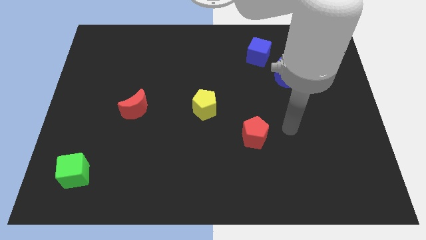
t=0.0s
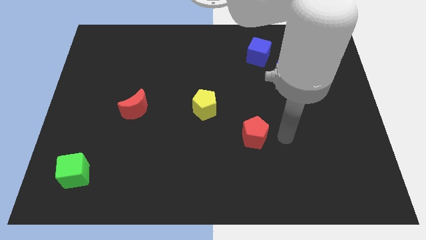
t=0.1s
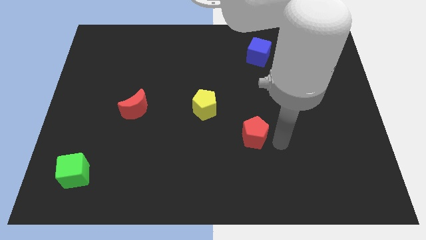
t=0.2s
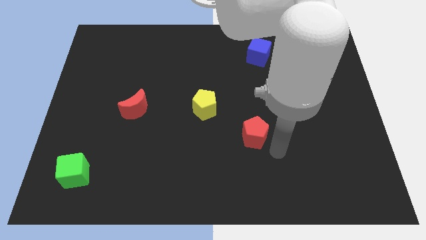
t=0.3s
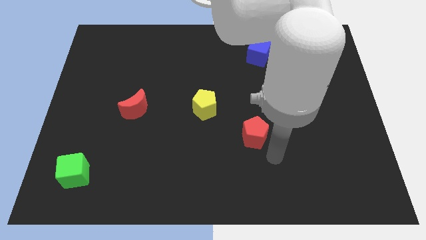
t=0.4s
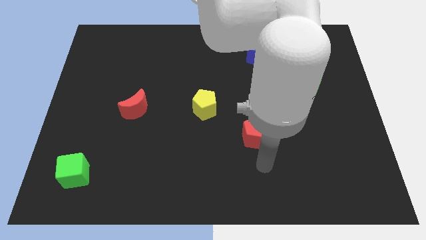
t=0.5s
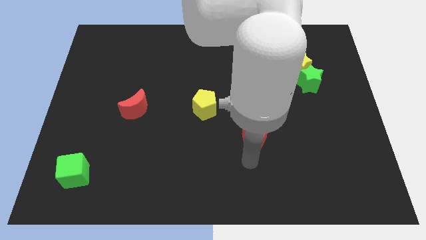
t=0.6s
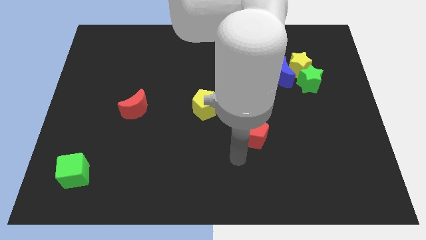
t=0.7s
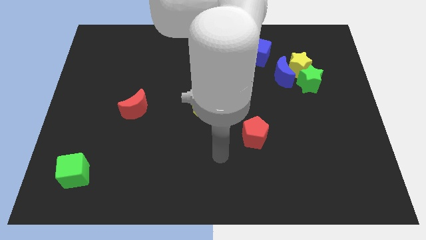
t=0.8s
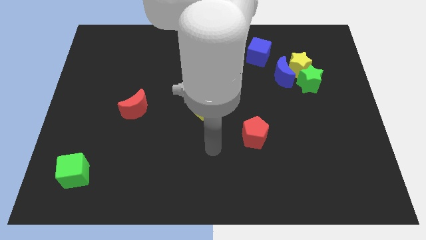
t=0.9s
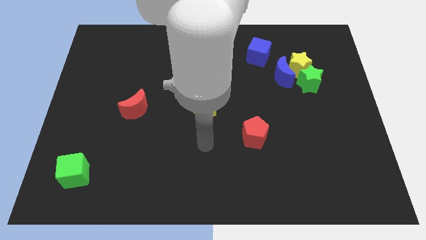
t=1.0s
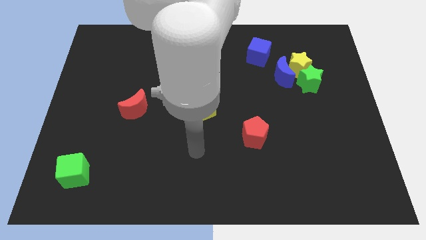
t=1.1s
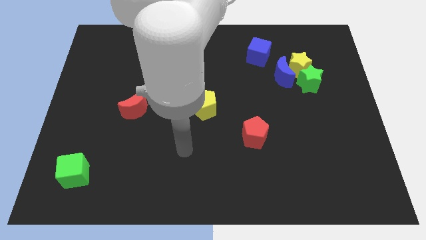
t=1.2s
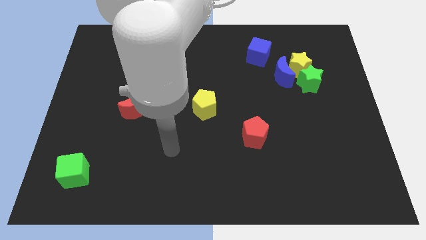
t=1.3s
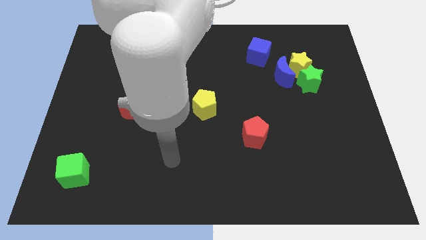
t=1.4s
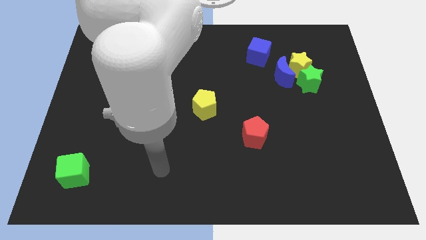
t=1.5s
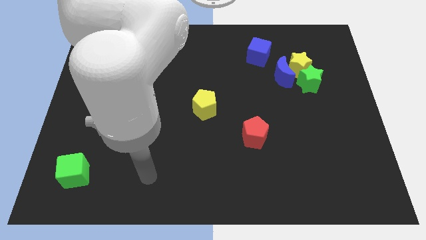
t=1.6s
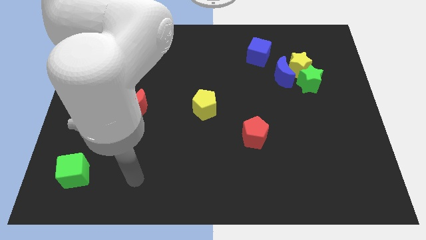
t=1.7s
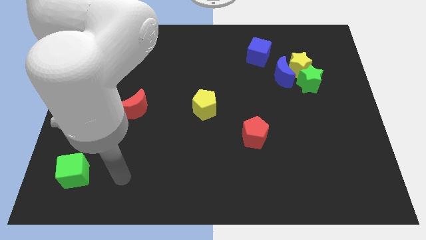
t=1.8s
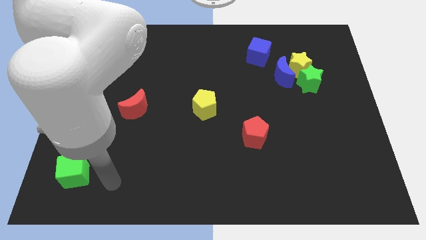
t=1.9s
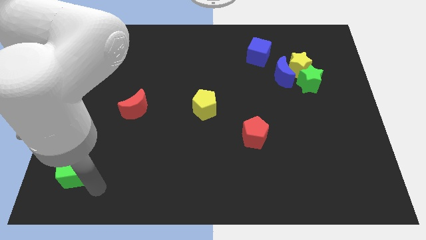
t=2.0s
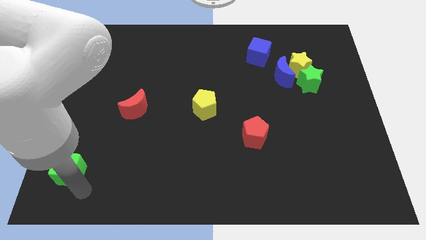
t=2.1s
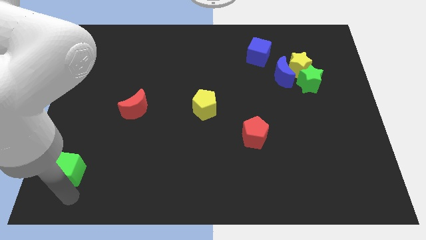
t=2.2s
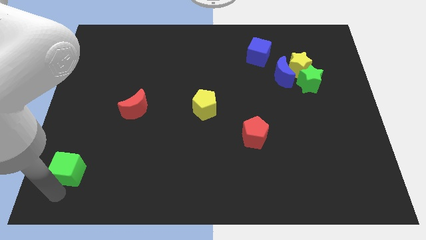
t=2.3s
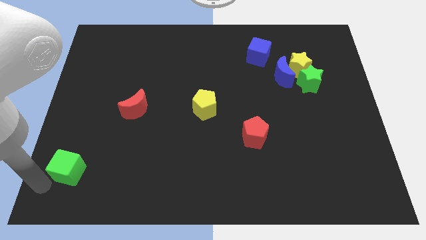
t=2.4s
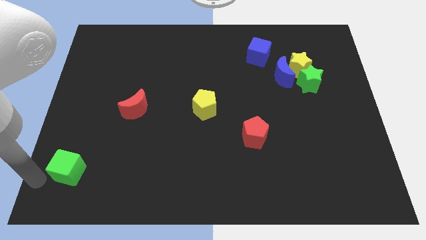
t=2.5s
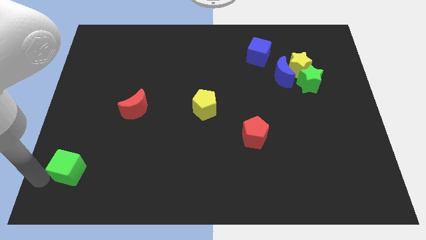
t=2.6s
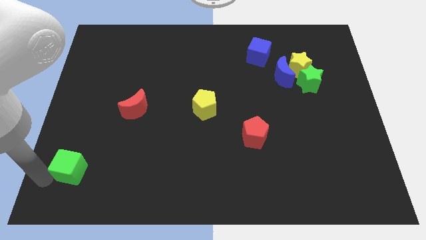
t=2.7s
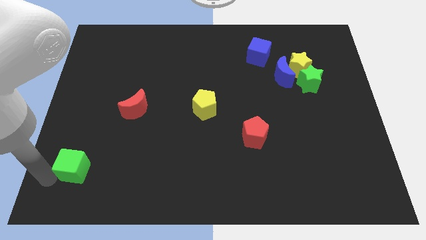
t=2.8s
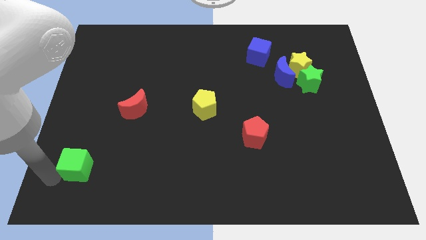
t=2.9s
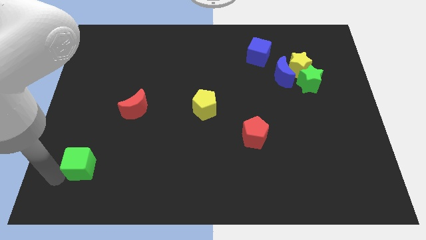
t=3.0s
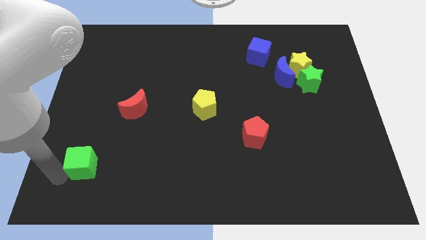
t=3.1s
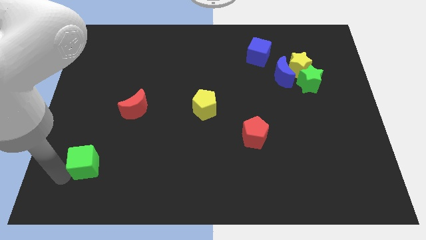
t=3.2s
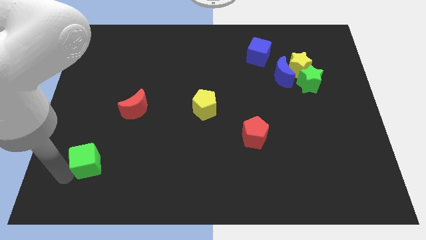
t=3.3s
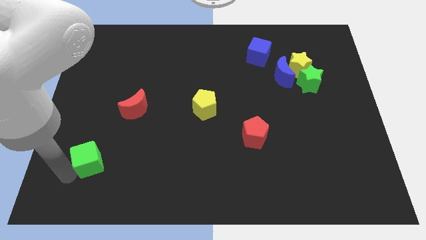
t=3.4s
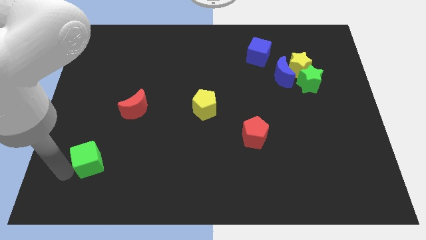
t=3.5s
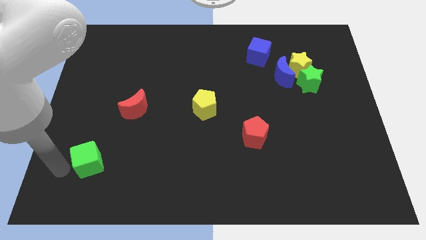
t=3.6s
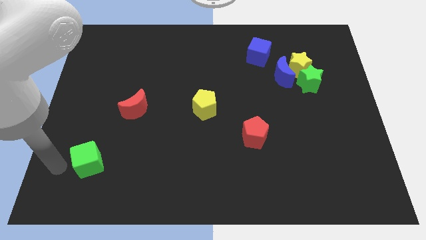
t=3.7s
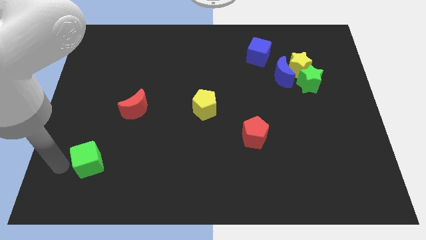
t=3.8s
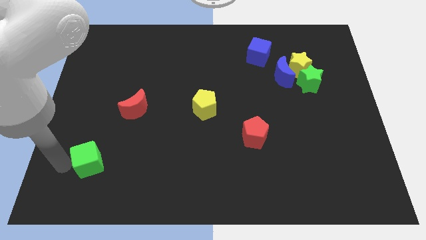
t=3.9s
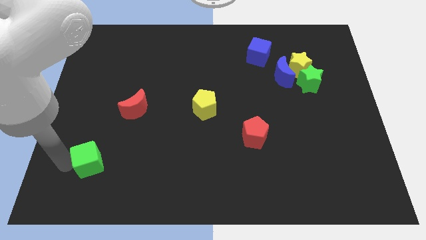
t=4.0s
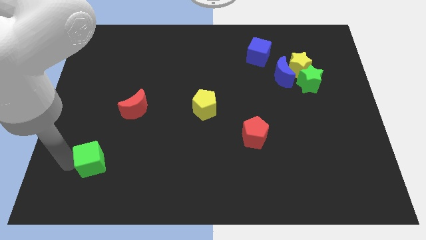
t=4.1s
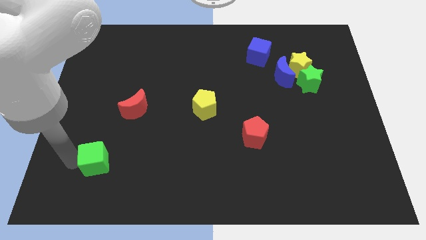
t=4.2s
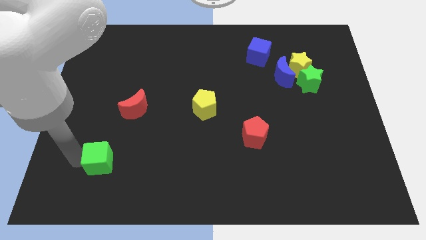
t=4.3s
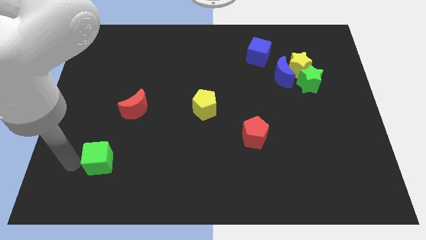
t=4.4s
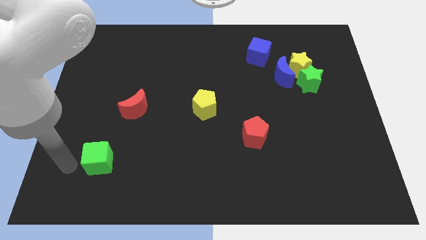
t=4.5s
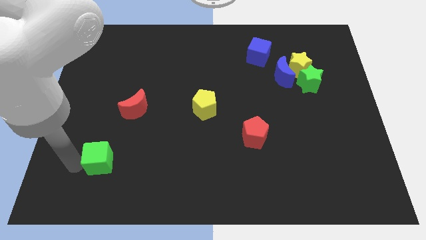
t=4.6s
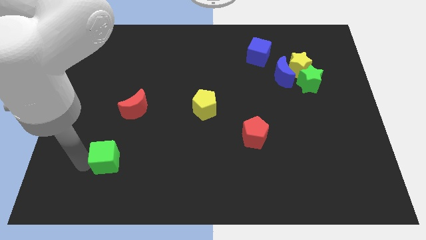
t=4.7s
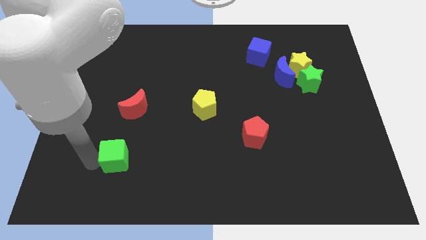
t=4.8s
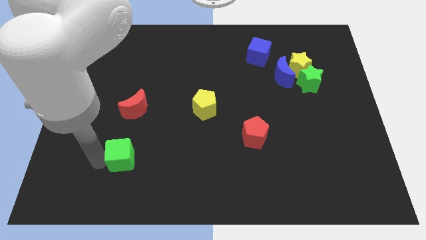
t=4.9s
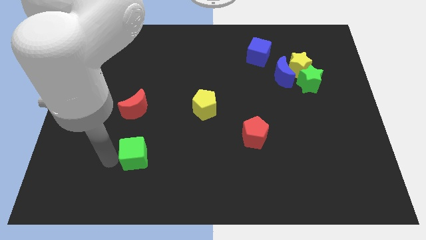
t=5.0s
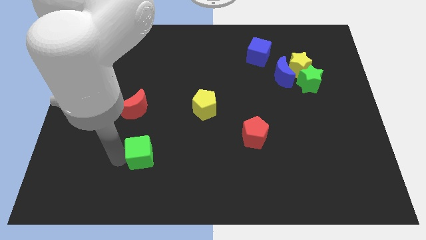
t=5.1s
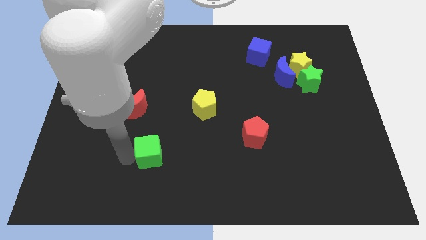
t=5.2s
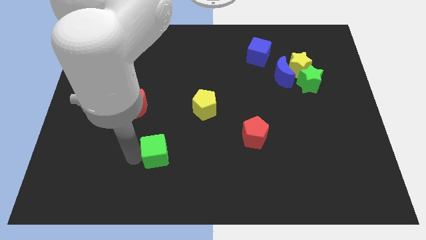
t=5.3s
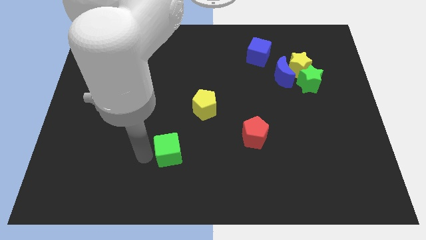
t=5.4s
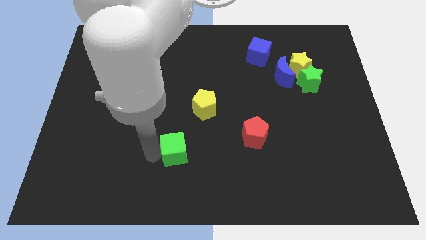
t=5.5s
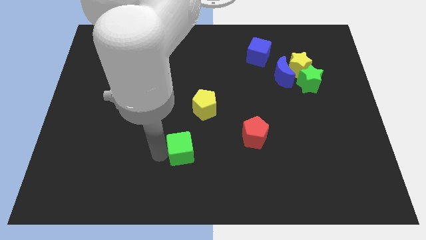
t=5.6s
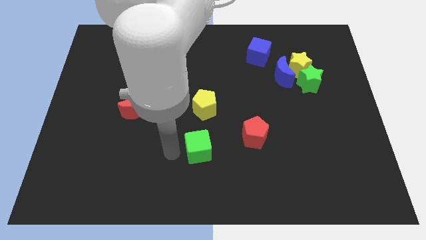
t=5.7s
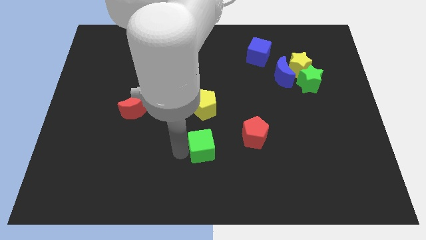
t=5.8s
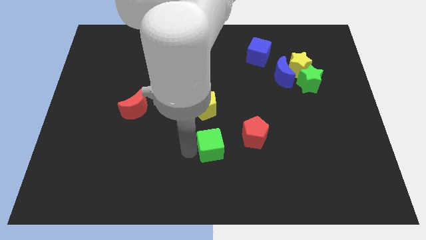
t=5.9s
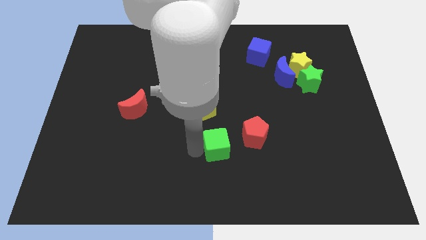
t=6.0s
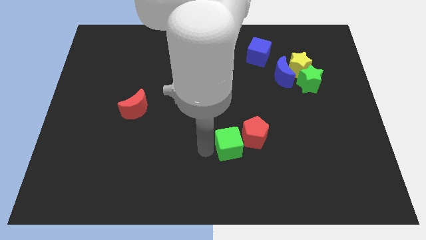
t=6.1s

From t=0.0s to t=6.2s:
push the green cube next to the red pentagon

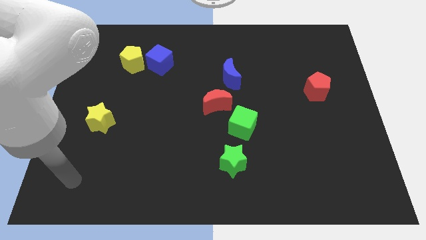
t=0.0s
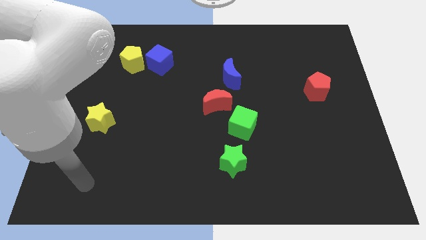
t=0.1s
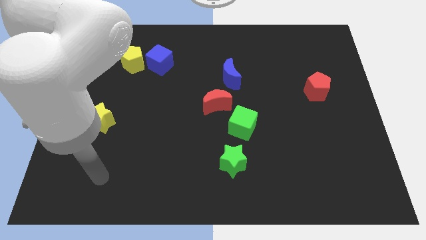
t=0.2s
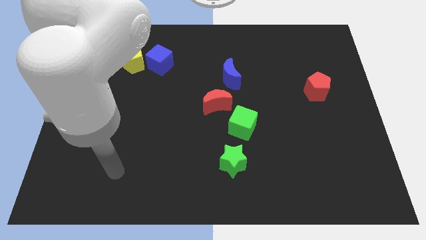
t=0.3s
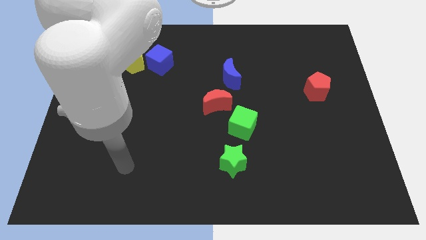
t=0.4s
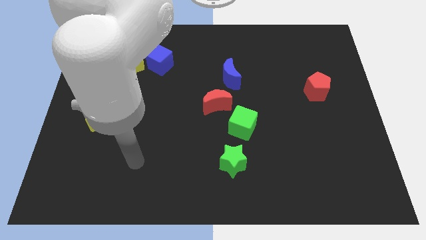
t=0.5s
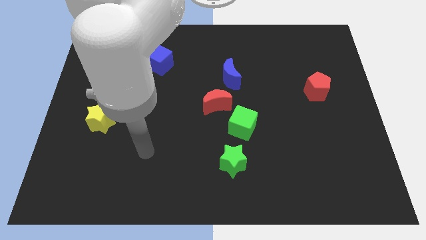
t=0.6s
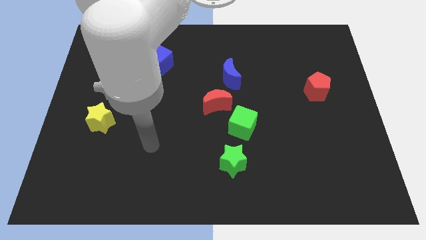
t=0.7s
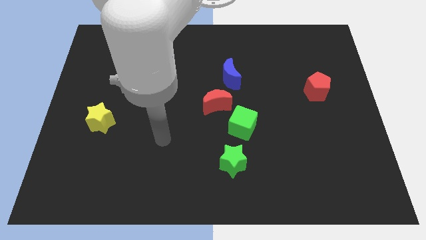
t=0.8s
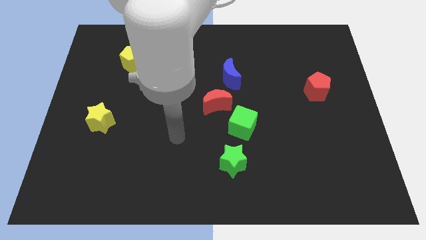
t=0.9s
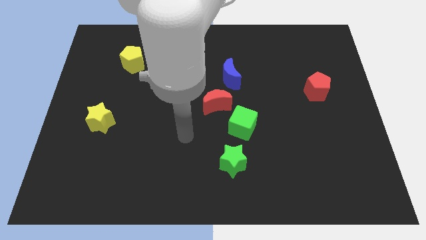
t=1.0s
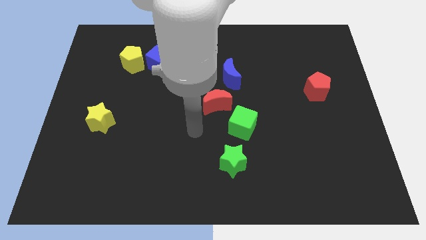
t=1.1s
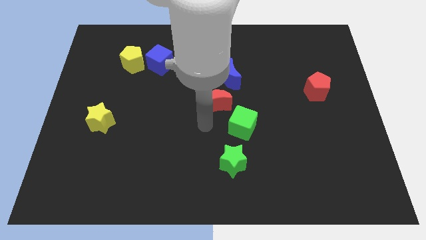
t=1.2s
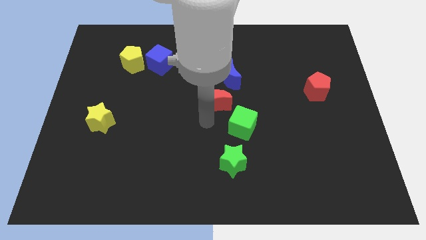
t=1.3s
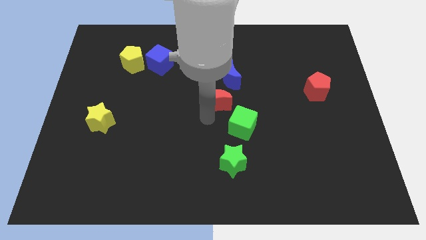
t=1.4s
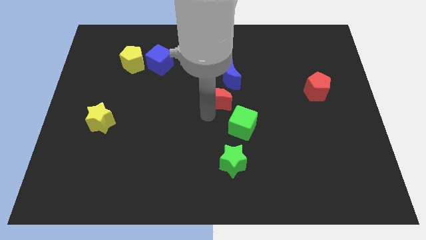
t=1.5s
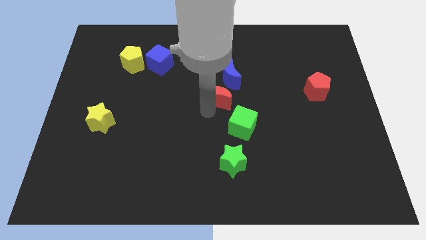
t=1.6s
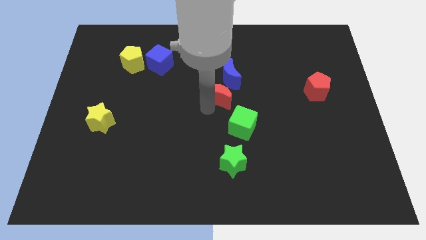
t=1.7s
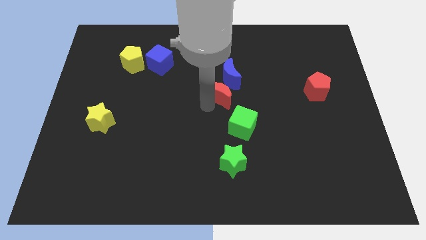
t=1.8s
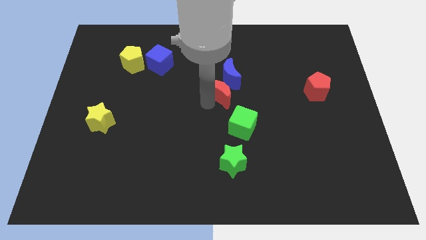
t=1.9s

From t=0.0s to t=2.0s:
slide the red moon next to the blue moon
